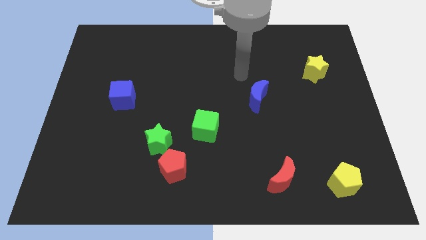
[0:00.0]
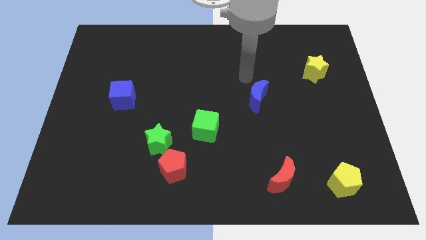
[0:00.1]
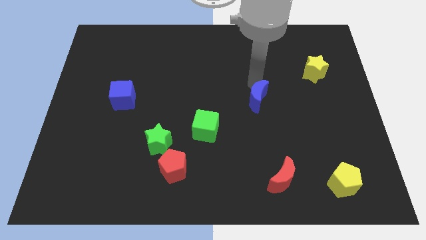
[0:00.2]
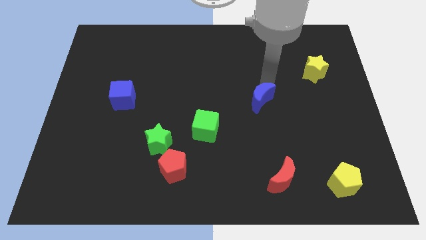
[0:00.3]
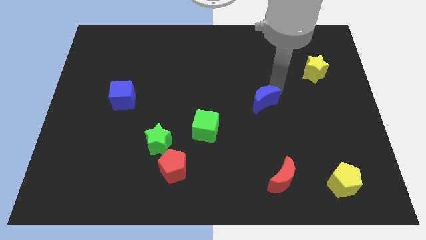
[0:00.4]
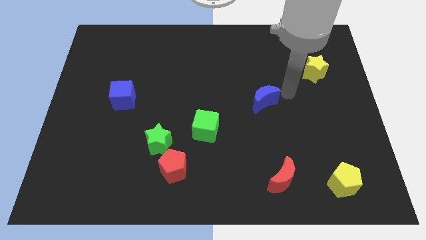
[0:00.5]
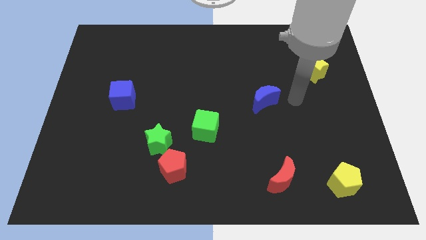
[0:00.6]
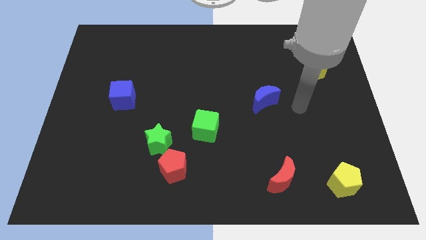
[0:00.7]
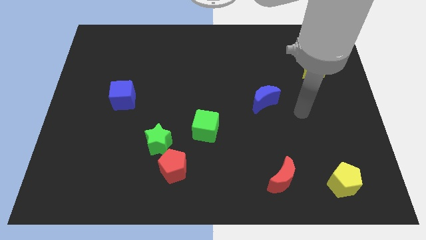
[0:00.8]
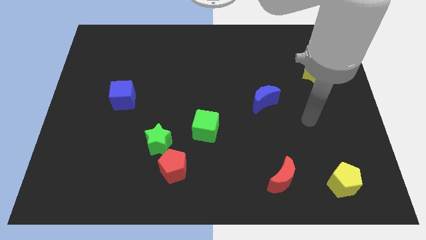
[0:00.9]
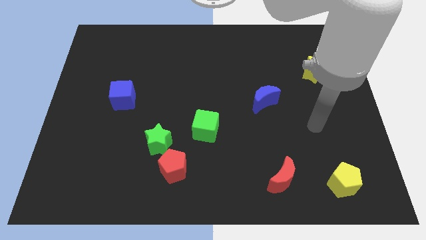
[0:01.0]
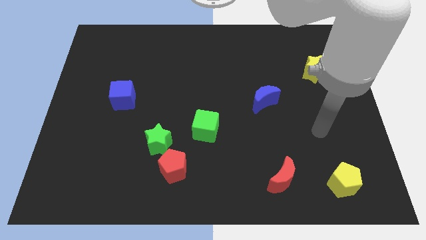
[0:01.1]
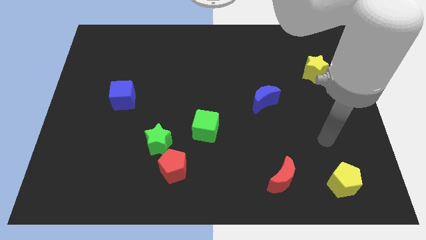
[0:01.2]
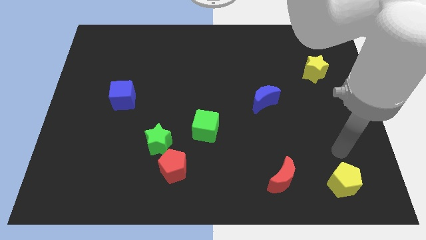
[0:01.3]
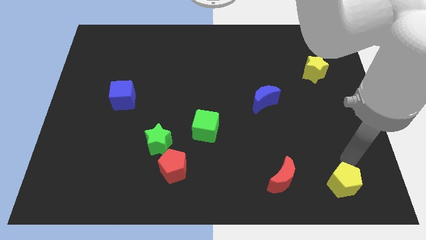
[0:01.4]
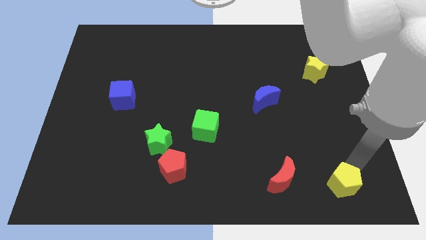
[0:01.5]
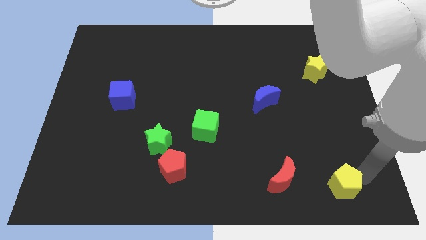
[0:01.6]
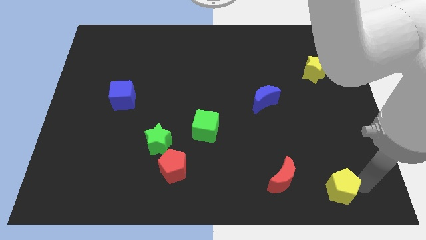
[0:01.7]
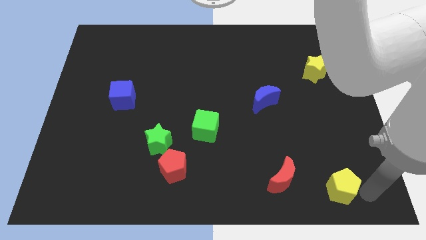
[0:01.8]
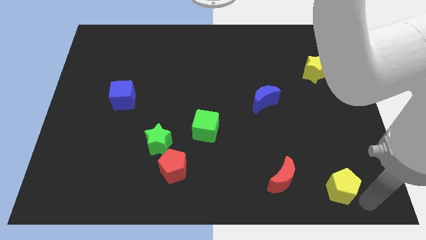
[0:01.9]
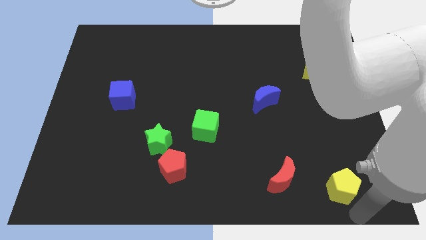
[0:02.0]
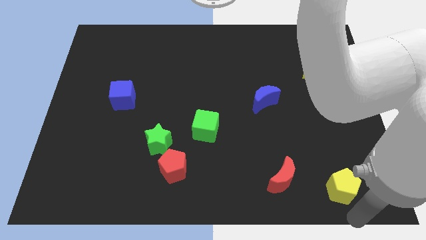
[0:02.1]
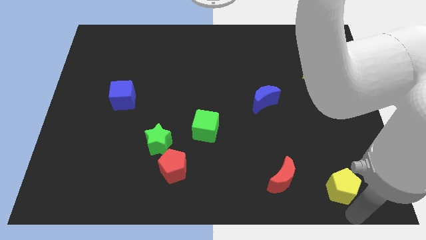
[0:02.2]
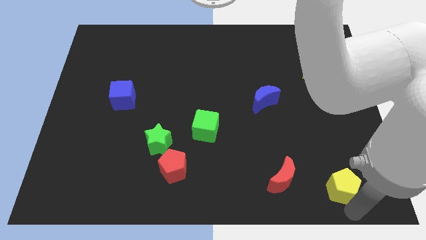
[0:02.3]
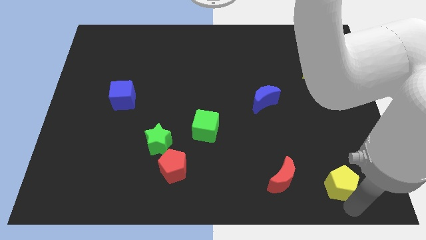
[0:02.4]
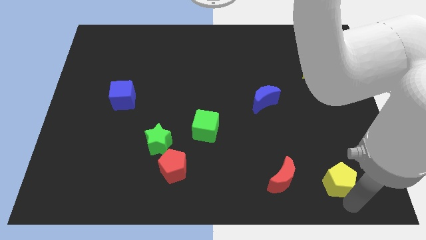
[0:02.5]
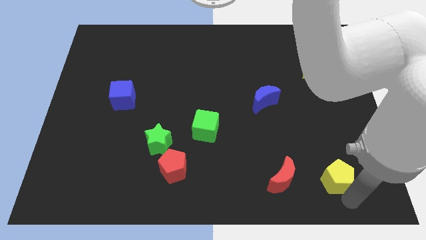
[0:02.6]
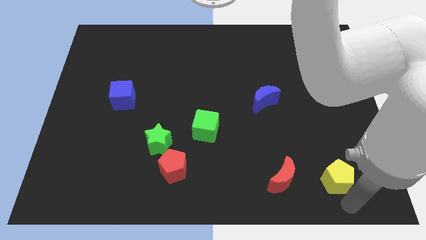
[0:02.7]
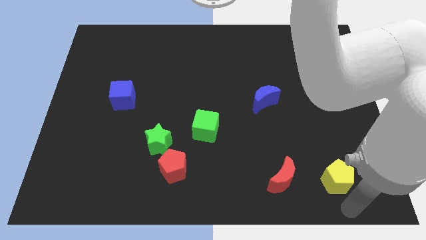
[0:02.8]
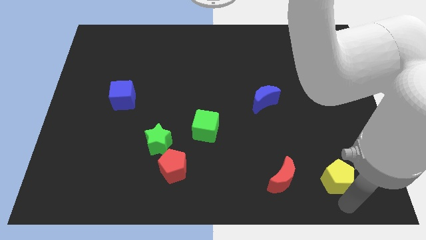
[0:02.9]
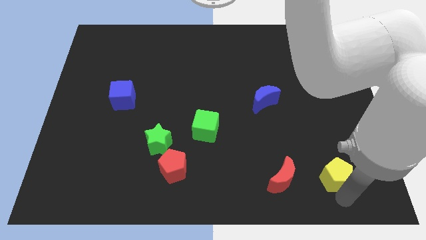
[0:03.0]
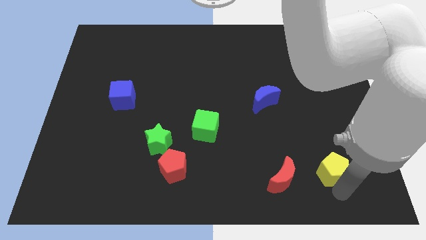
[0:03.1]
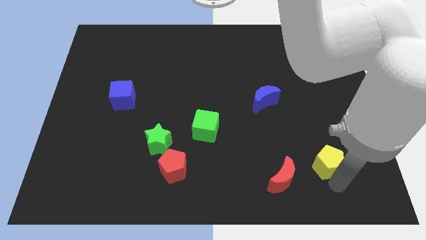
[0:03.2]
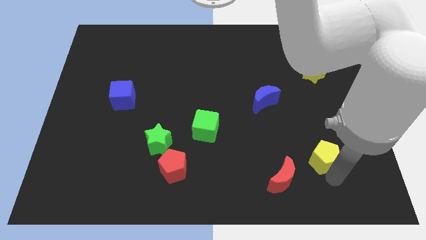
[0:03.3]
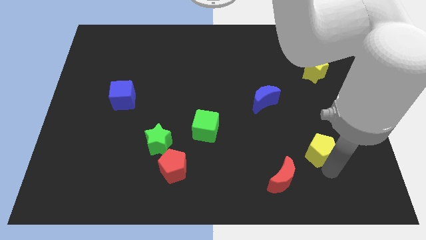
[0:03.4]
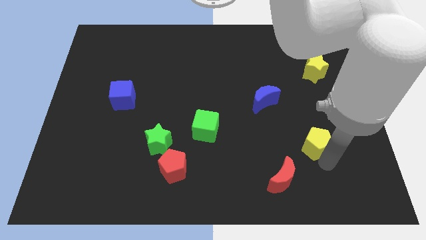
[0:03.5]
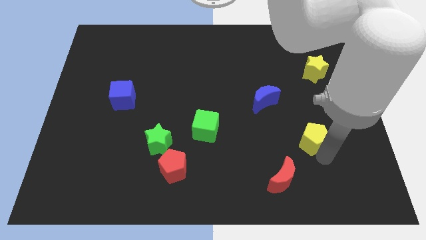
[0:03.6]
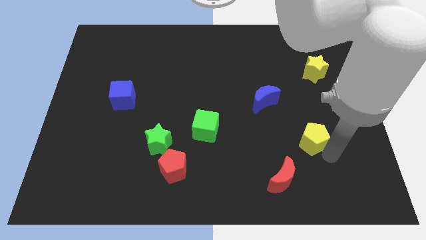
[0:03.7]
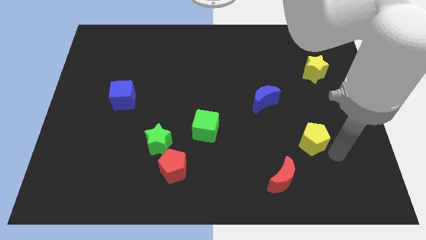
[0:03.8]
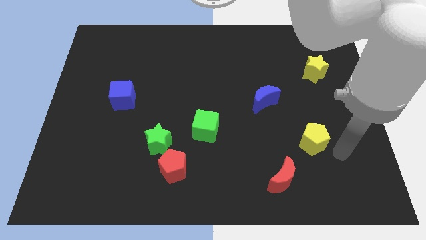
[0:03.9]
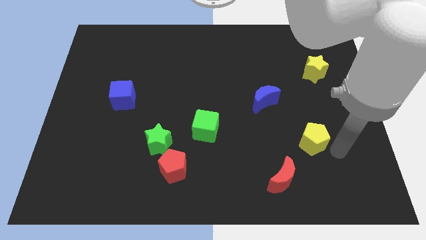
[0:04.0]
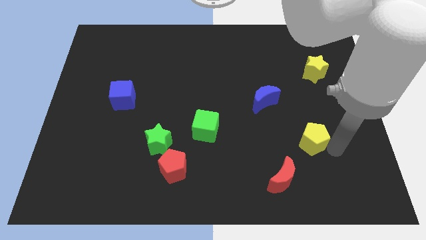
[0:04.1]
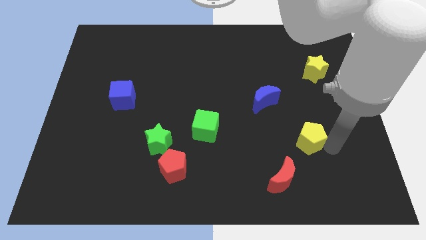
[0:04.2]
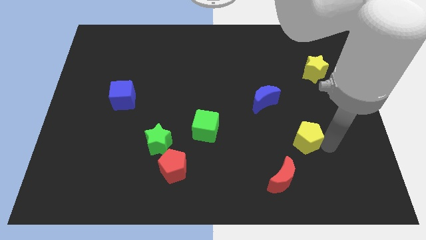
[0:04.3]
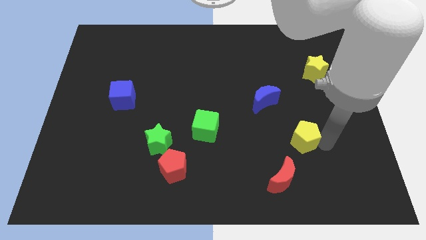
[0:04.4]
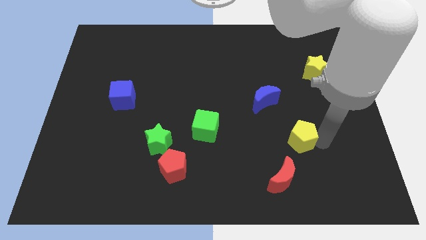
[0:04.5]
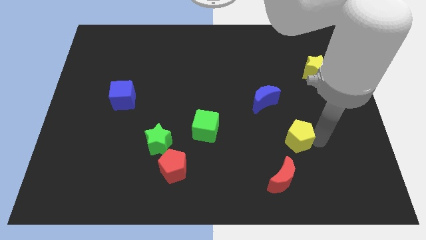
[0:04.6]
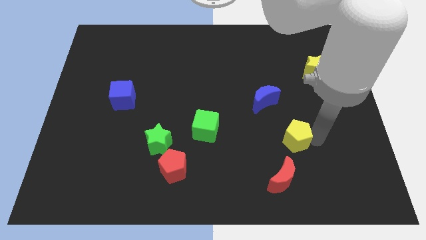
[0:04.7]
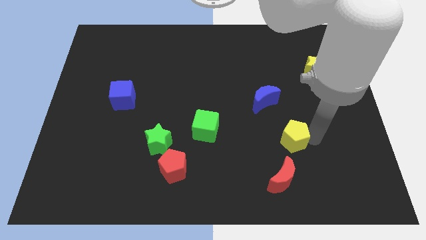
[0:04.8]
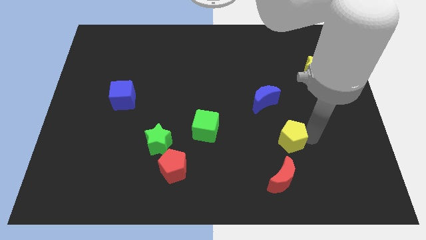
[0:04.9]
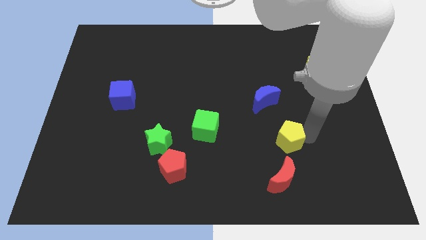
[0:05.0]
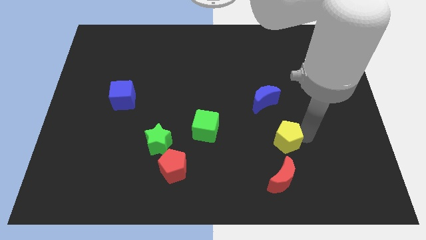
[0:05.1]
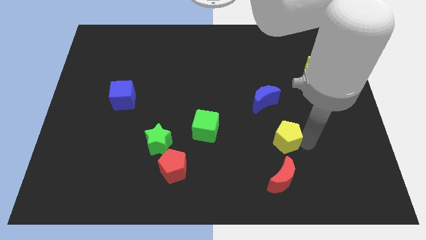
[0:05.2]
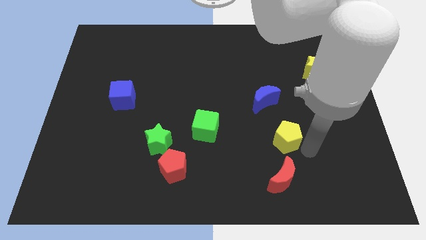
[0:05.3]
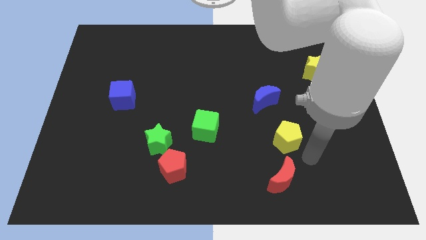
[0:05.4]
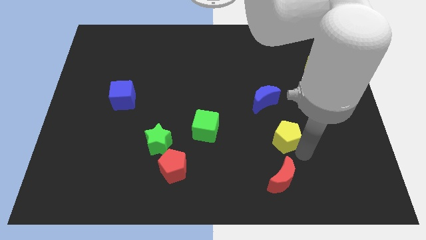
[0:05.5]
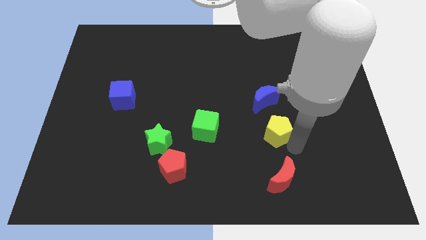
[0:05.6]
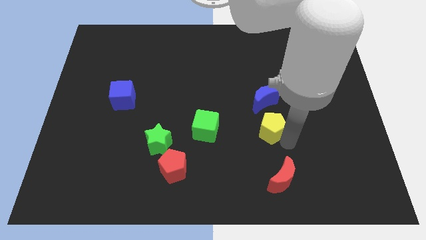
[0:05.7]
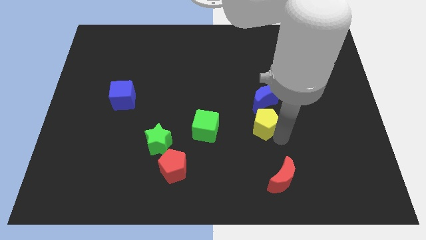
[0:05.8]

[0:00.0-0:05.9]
move the yellow pentagon up and left

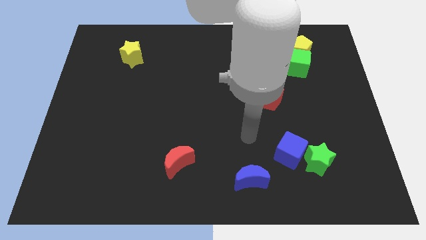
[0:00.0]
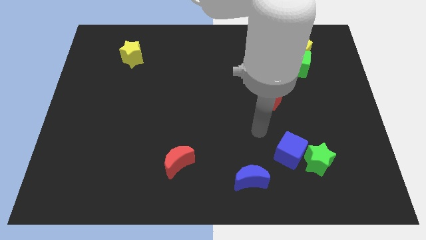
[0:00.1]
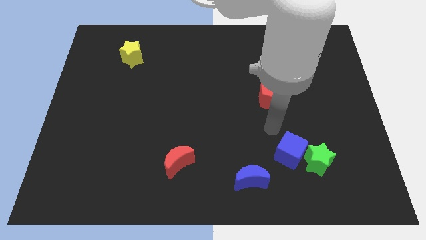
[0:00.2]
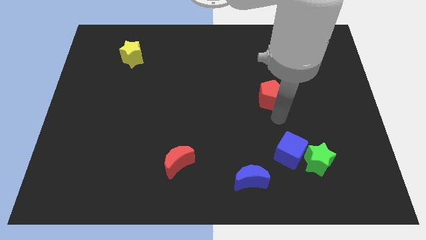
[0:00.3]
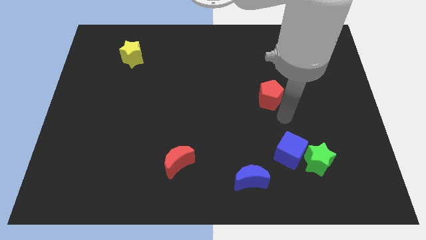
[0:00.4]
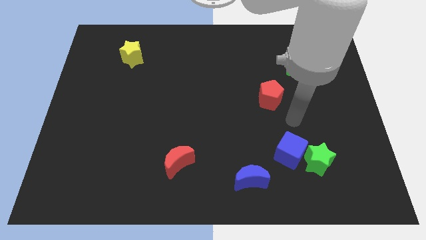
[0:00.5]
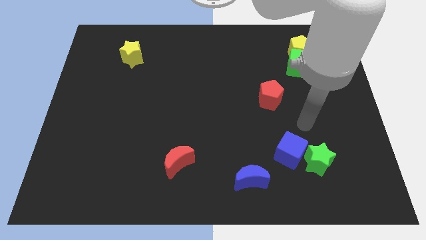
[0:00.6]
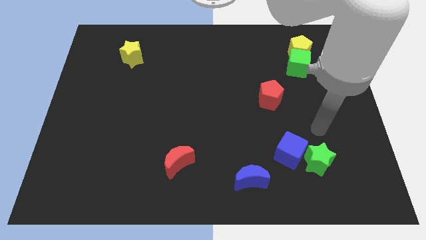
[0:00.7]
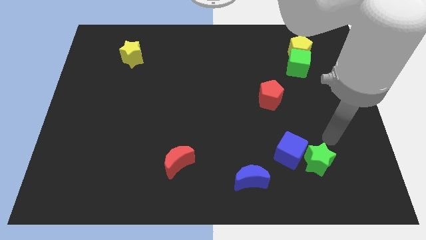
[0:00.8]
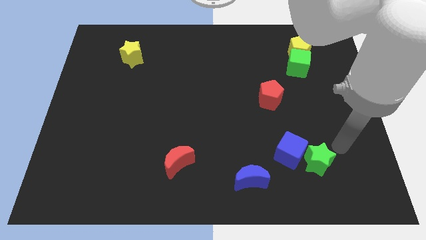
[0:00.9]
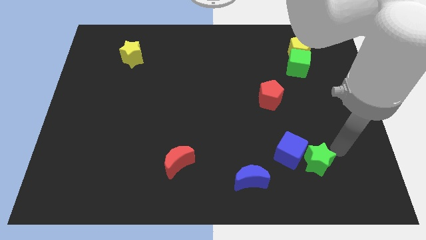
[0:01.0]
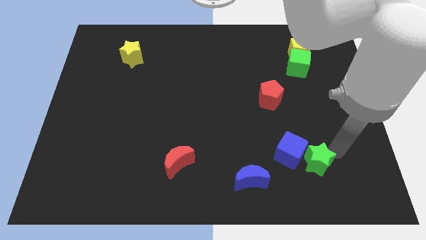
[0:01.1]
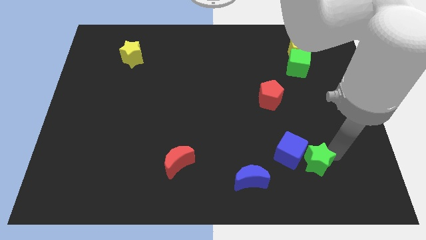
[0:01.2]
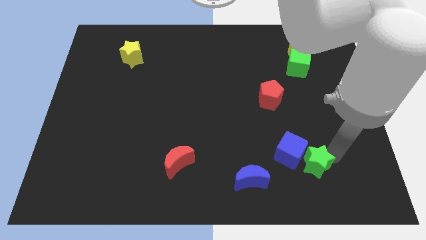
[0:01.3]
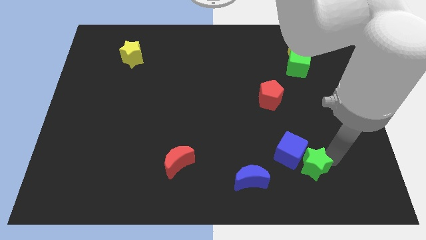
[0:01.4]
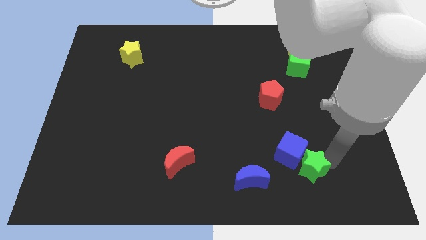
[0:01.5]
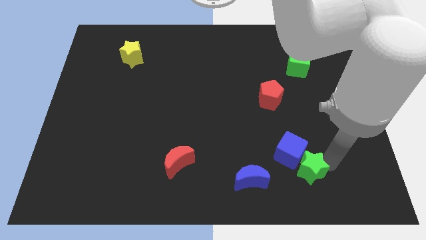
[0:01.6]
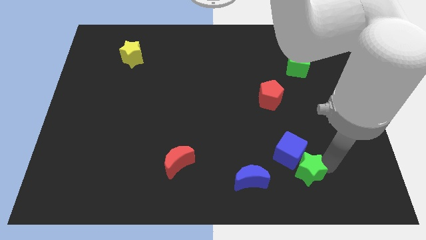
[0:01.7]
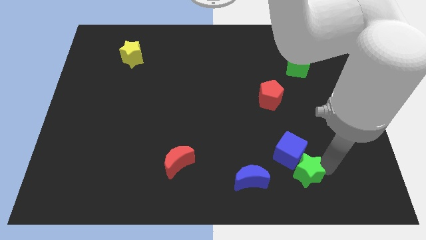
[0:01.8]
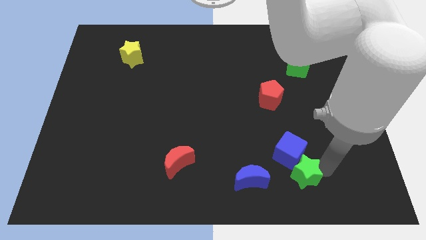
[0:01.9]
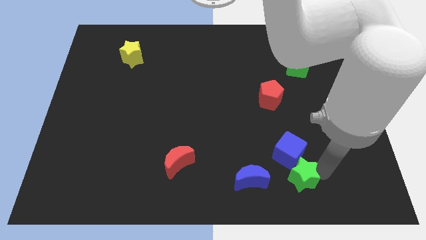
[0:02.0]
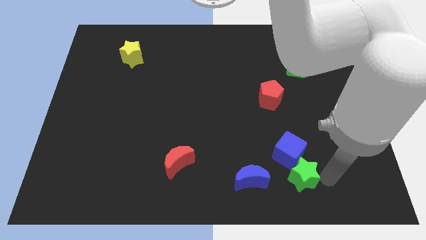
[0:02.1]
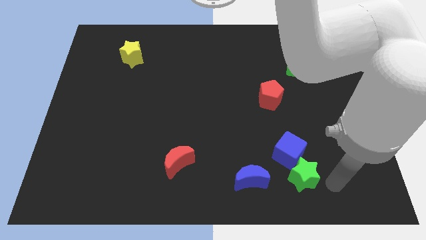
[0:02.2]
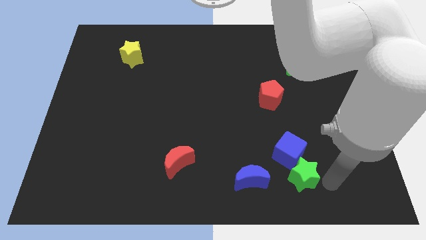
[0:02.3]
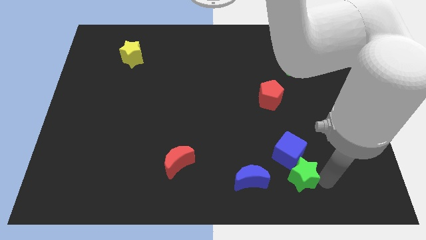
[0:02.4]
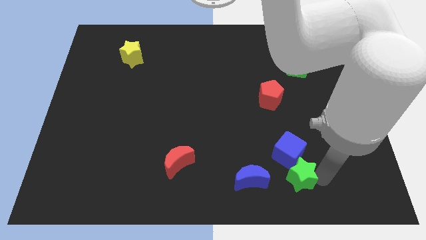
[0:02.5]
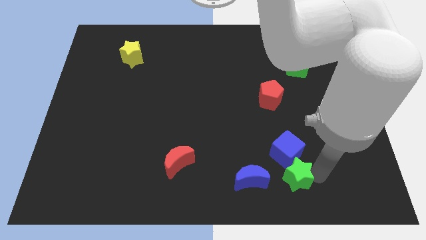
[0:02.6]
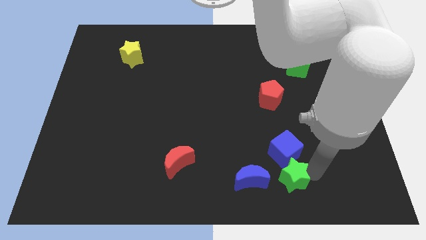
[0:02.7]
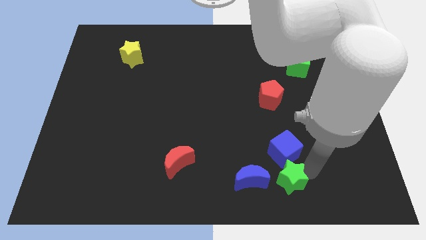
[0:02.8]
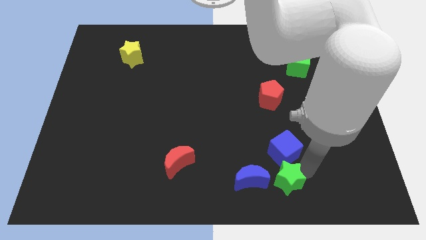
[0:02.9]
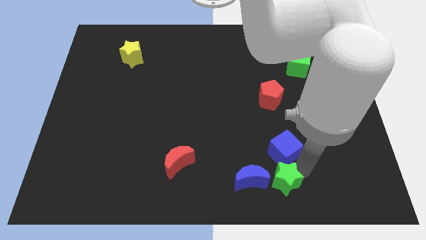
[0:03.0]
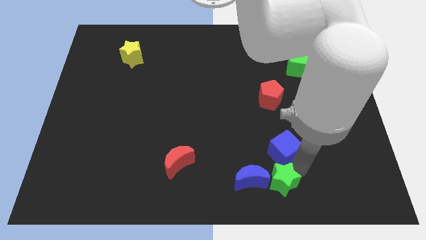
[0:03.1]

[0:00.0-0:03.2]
slightly slide the green star to the left
